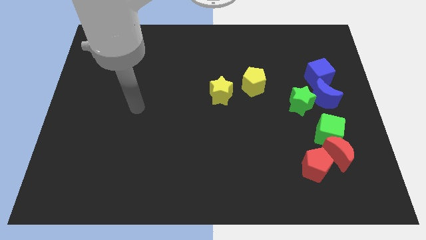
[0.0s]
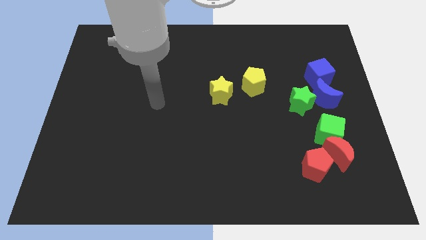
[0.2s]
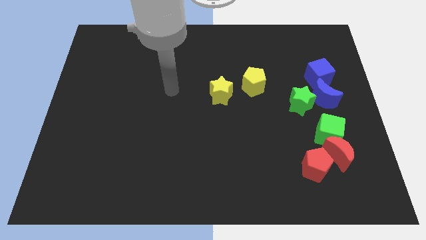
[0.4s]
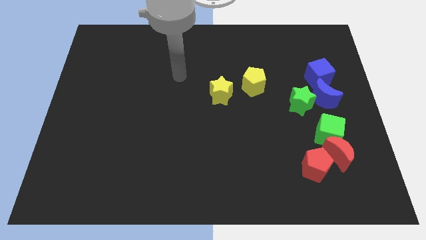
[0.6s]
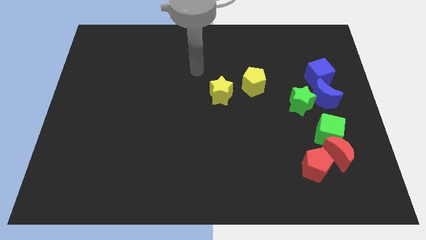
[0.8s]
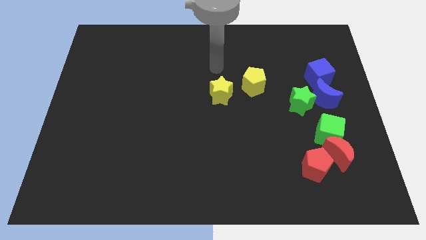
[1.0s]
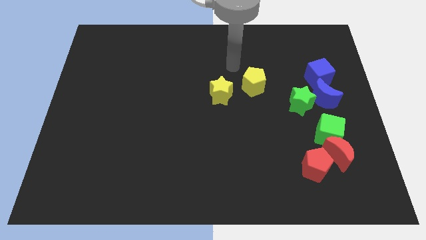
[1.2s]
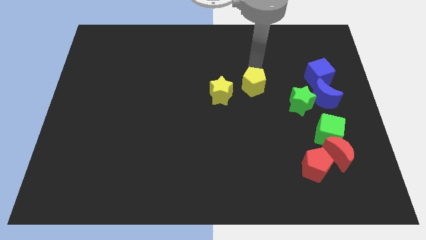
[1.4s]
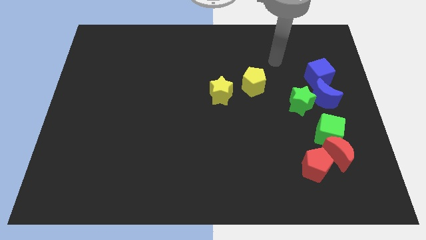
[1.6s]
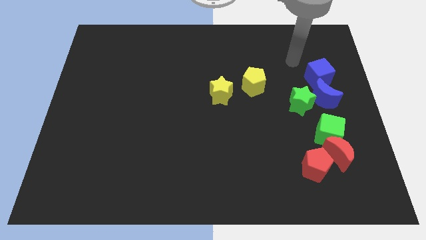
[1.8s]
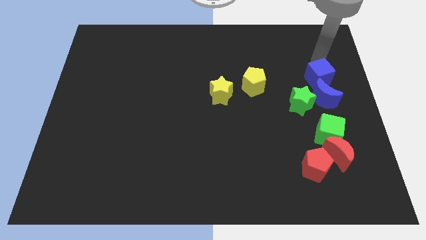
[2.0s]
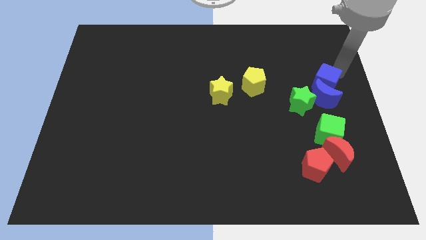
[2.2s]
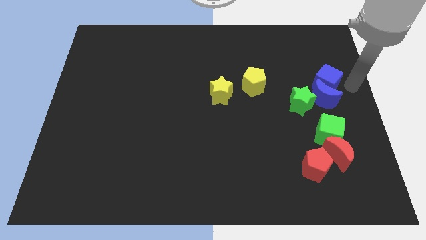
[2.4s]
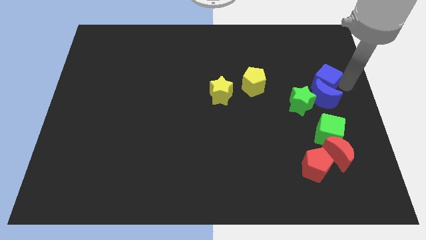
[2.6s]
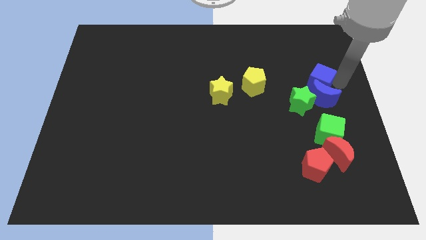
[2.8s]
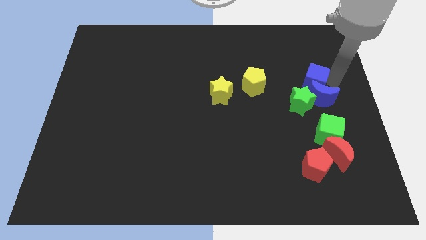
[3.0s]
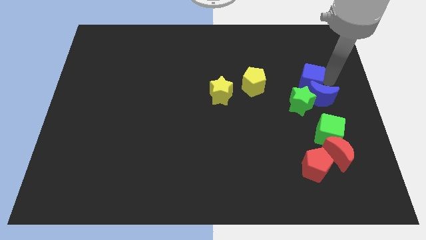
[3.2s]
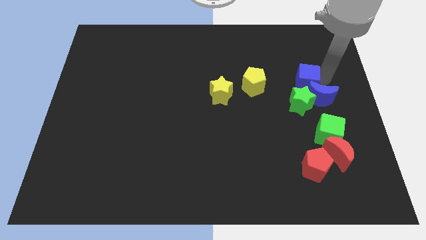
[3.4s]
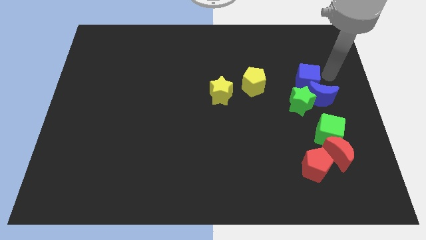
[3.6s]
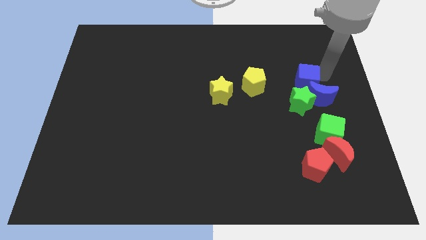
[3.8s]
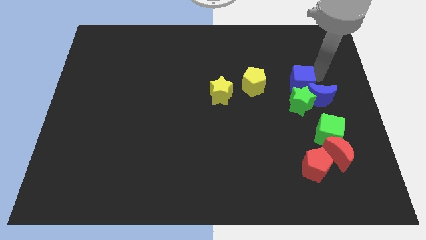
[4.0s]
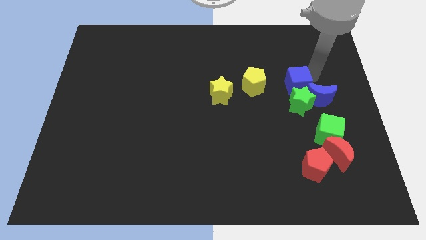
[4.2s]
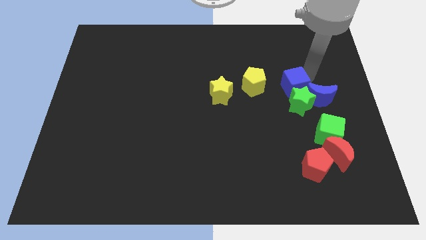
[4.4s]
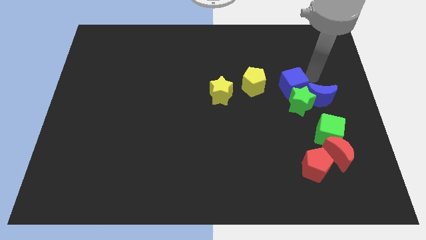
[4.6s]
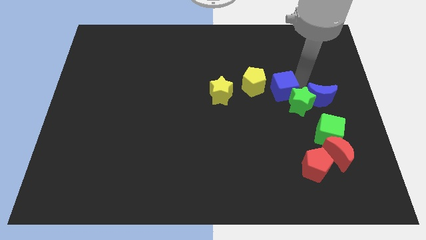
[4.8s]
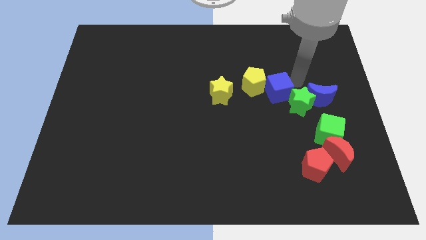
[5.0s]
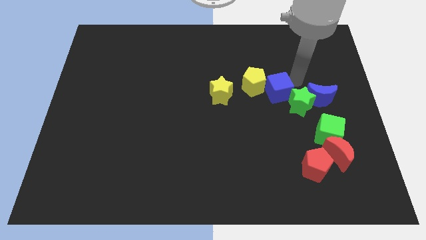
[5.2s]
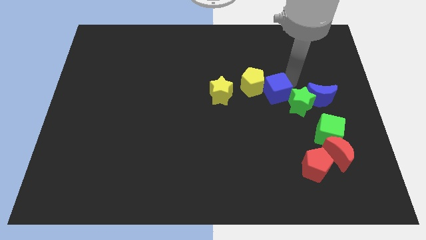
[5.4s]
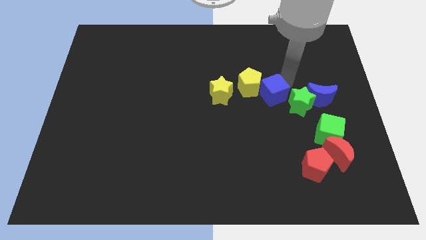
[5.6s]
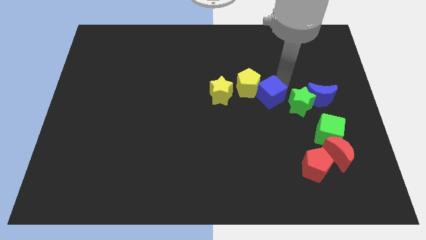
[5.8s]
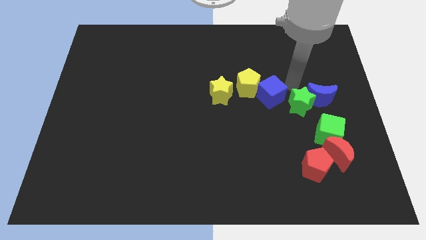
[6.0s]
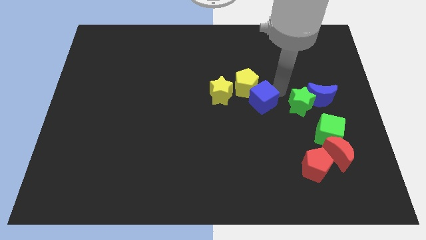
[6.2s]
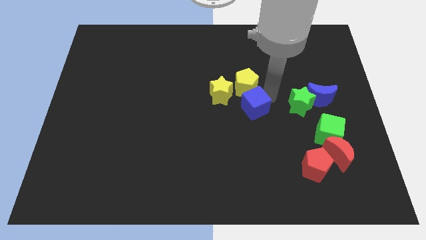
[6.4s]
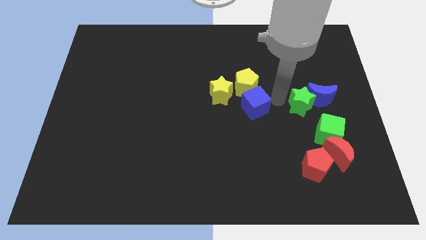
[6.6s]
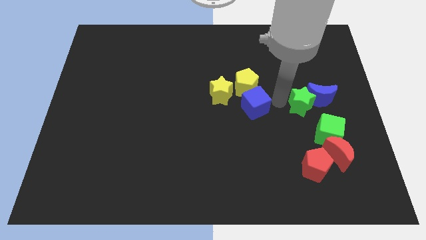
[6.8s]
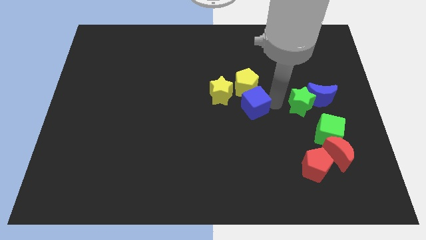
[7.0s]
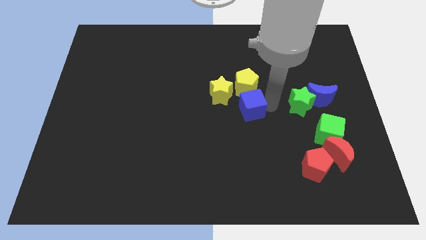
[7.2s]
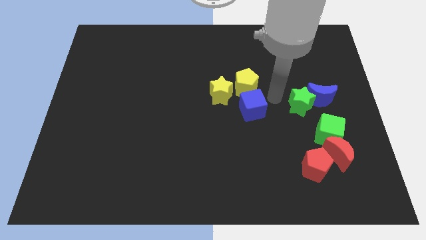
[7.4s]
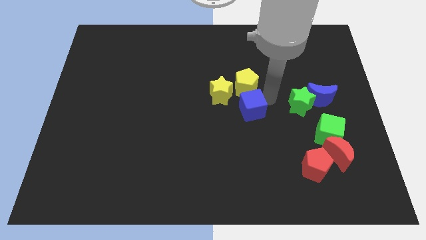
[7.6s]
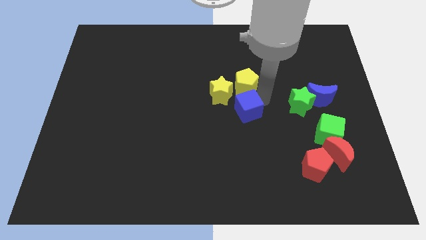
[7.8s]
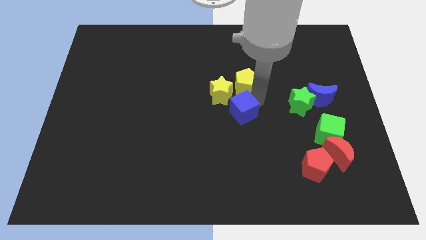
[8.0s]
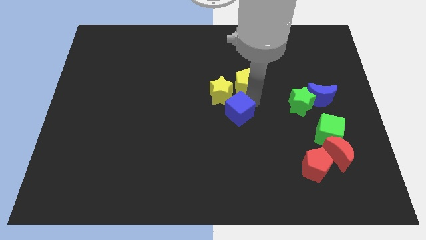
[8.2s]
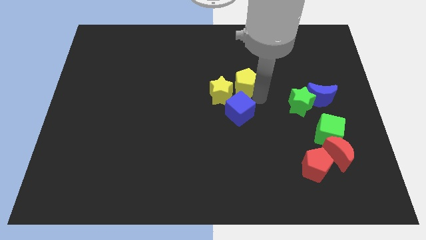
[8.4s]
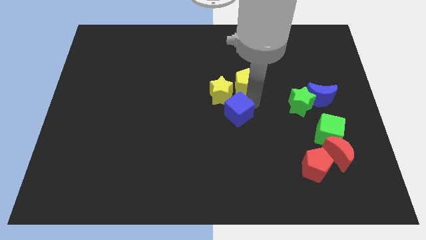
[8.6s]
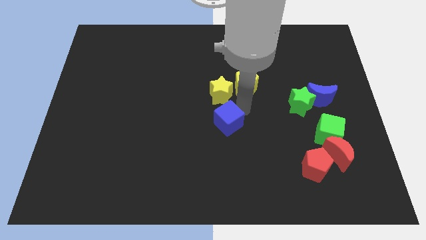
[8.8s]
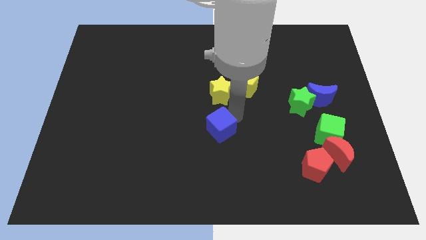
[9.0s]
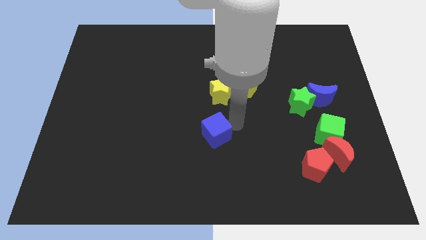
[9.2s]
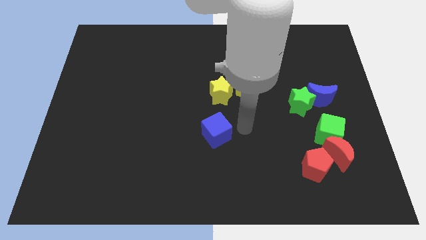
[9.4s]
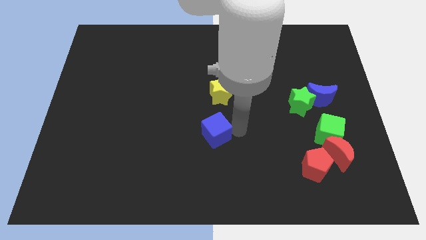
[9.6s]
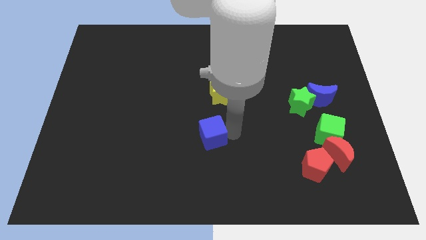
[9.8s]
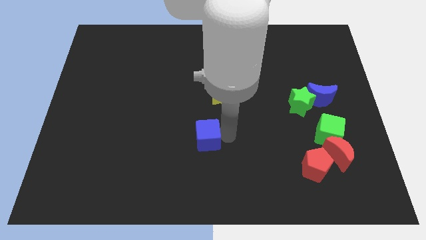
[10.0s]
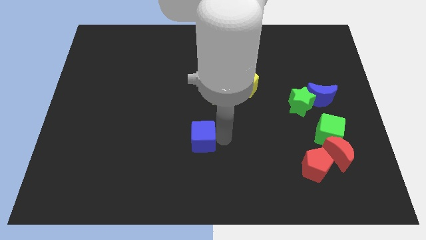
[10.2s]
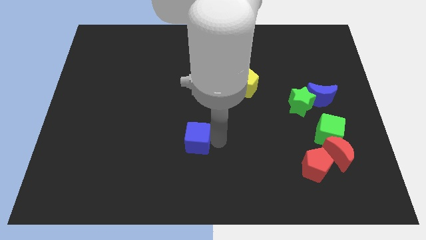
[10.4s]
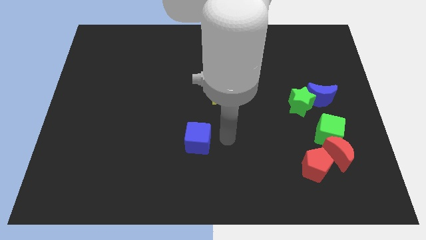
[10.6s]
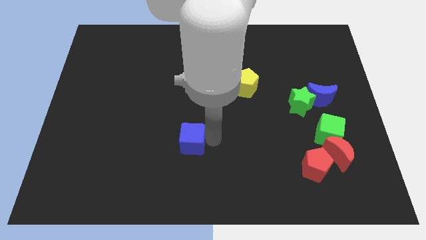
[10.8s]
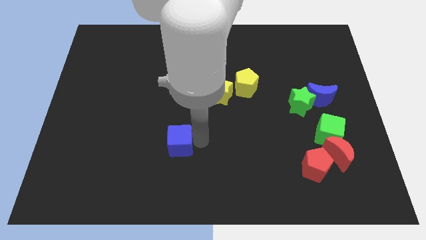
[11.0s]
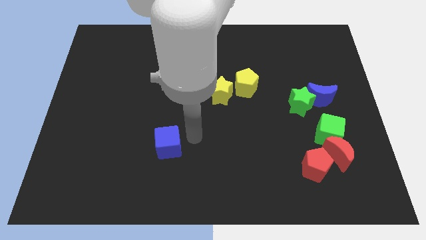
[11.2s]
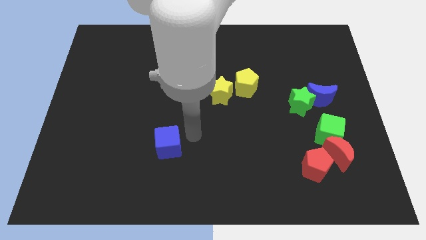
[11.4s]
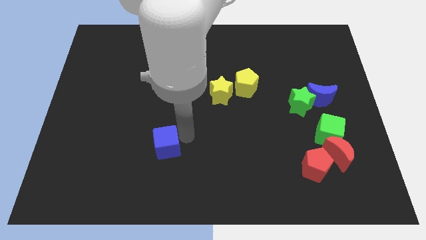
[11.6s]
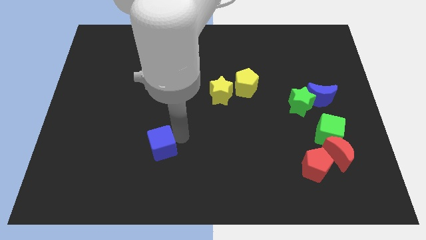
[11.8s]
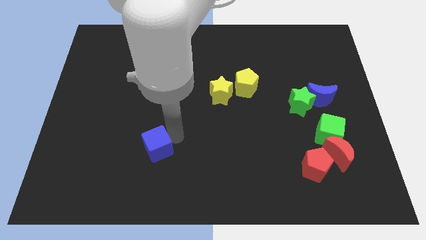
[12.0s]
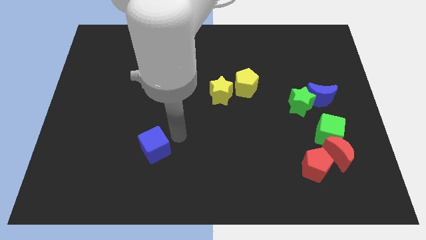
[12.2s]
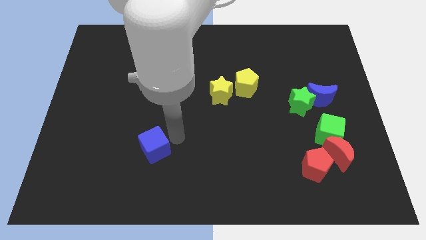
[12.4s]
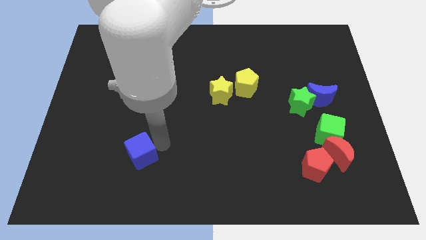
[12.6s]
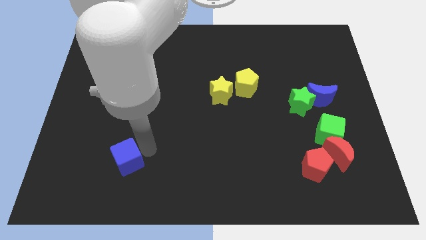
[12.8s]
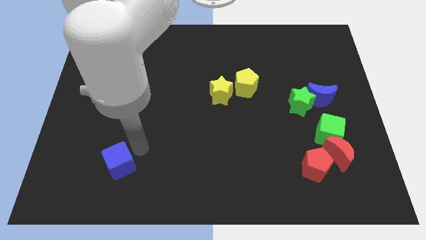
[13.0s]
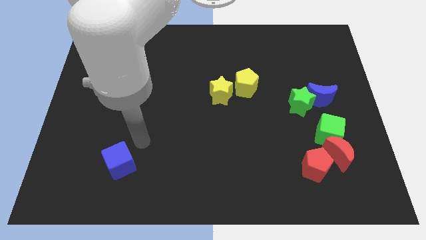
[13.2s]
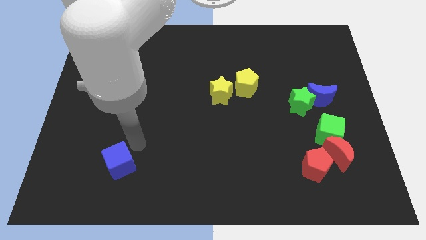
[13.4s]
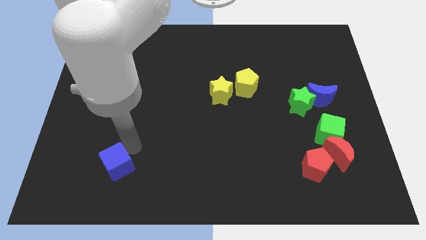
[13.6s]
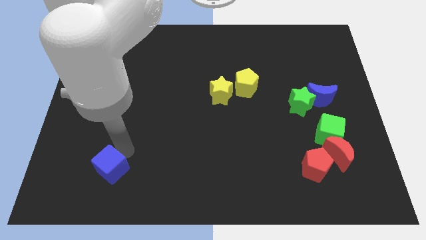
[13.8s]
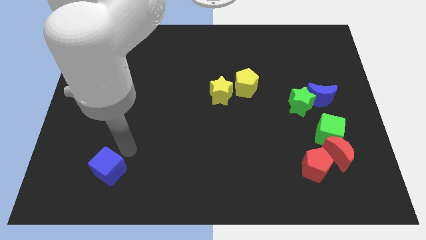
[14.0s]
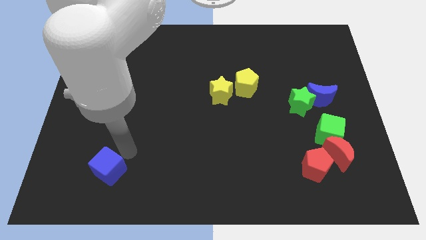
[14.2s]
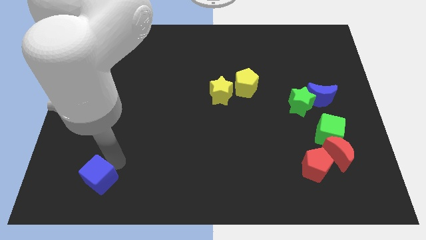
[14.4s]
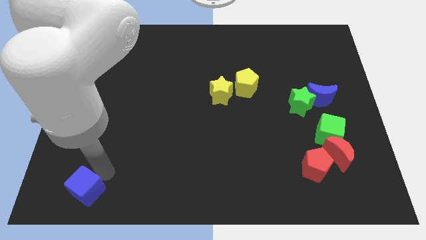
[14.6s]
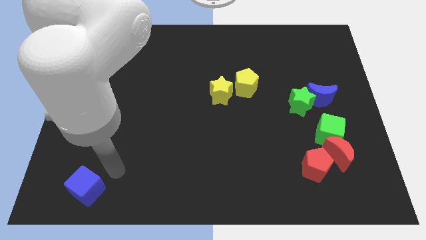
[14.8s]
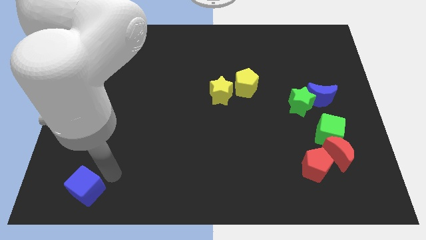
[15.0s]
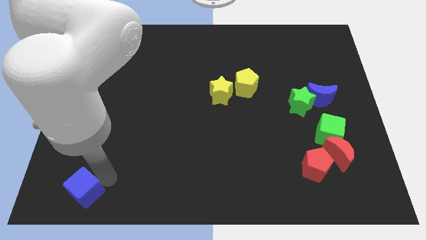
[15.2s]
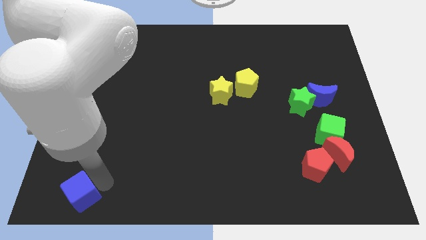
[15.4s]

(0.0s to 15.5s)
put the blue cube to the bottom left corner
